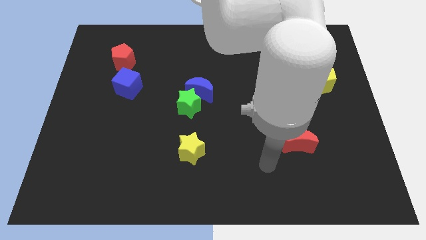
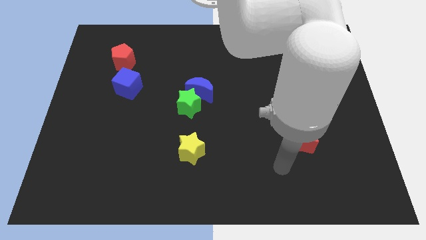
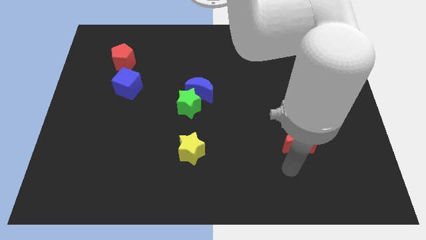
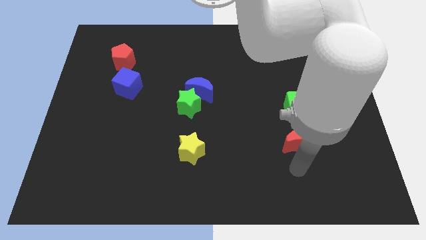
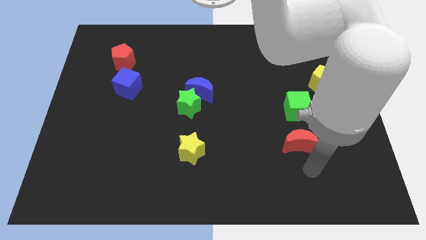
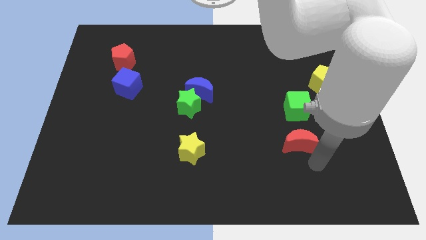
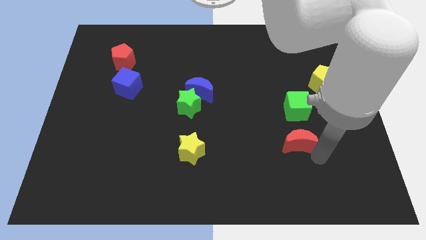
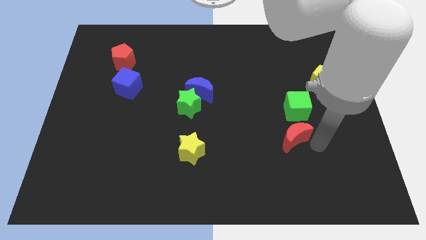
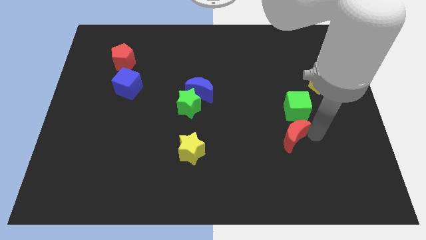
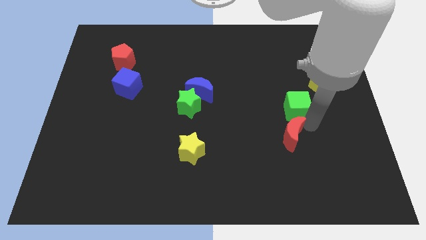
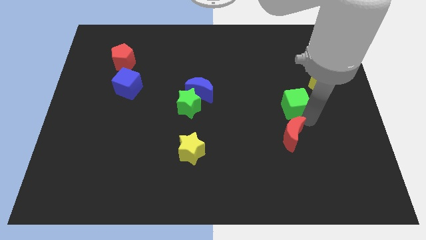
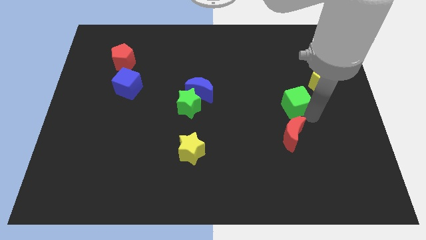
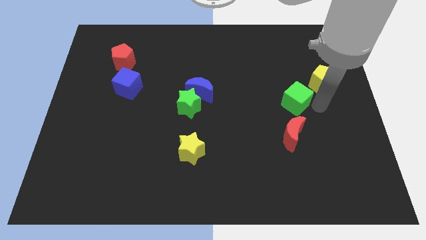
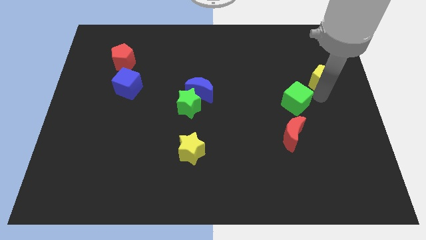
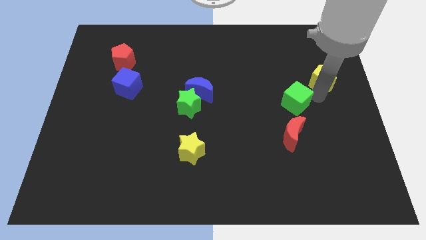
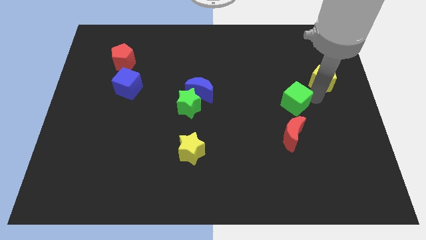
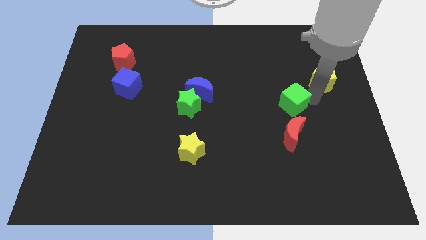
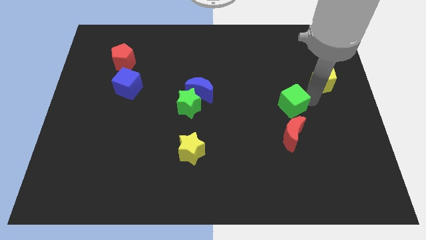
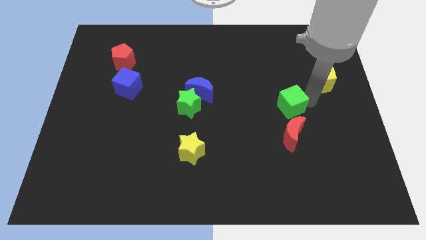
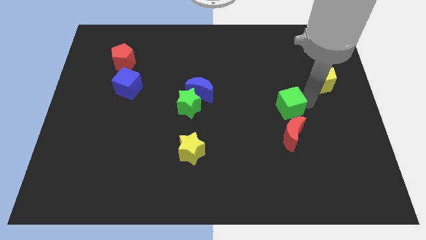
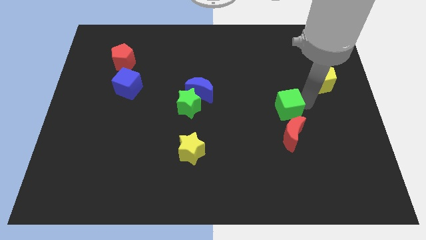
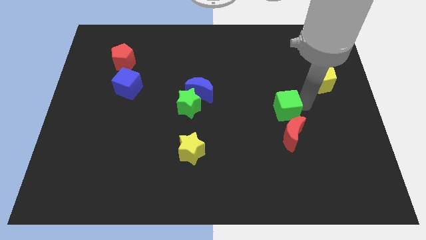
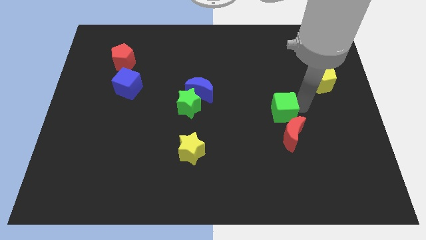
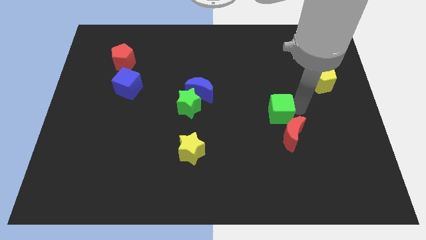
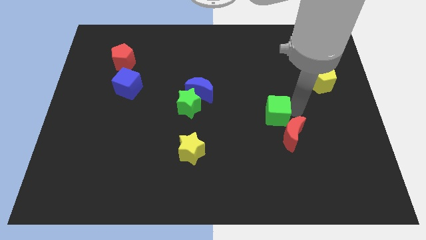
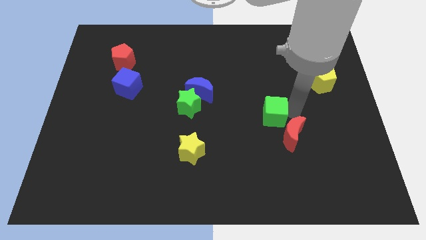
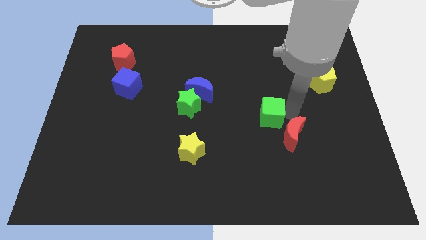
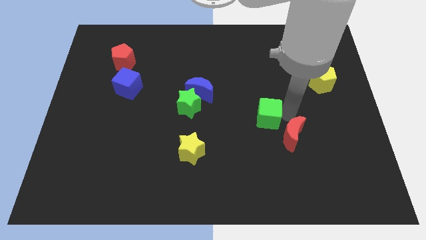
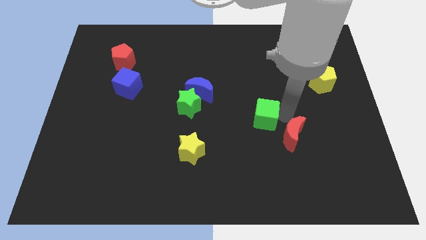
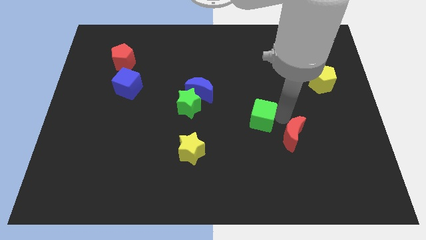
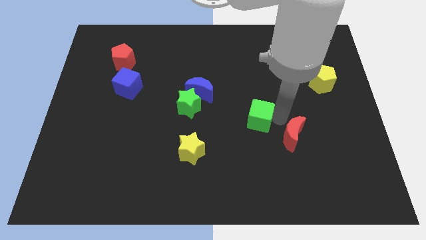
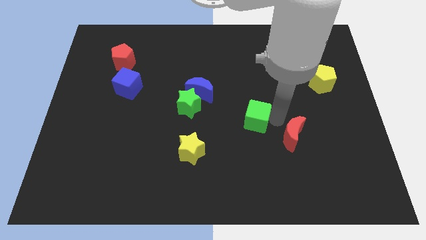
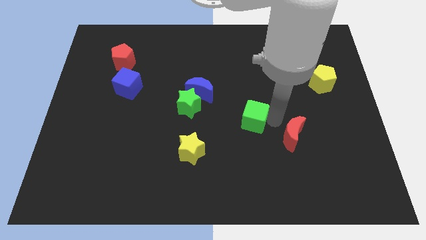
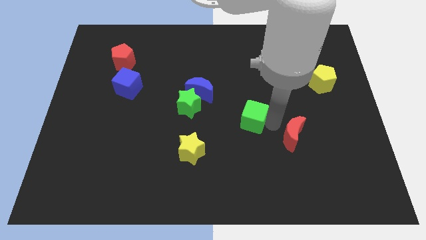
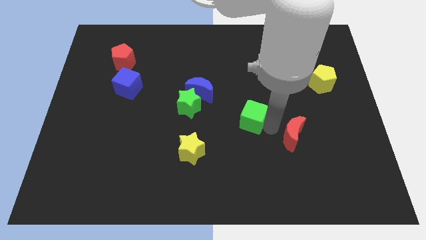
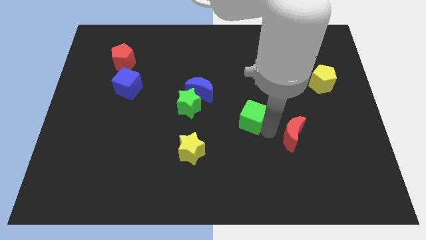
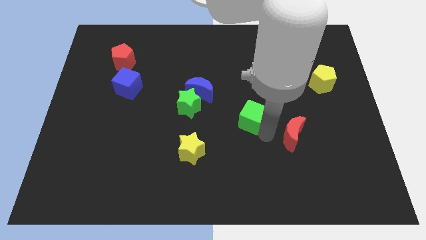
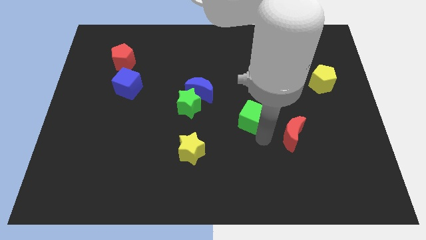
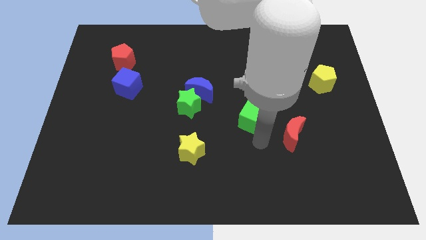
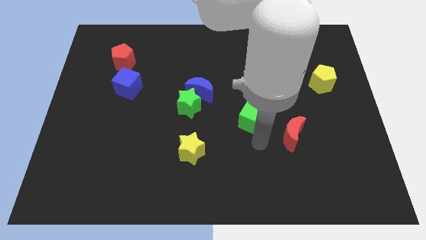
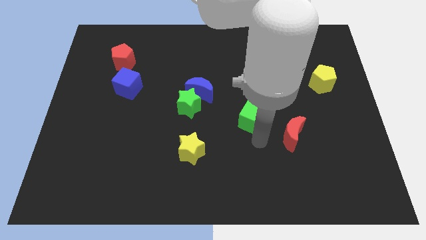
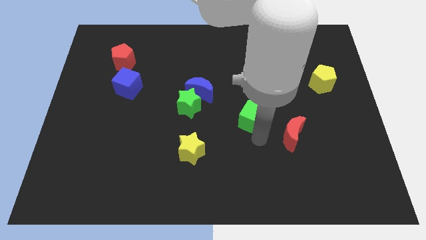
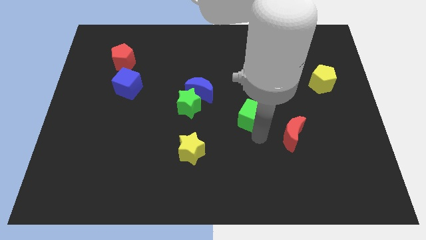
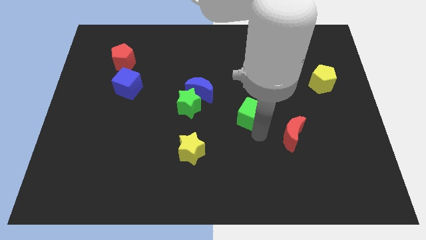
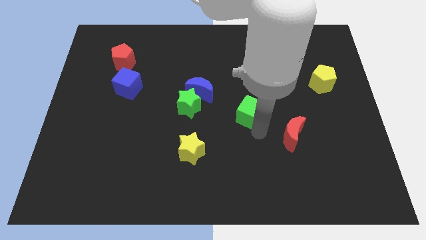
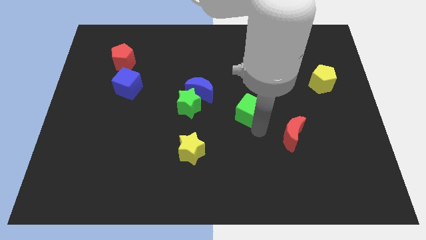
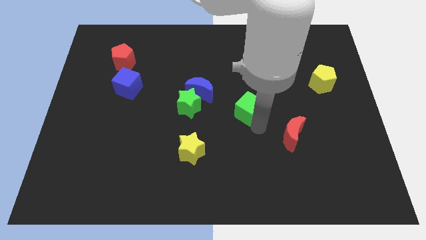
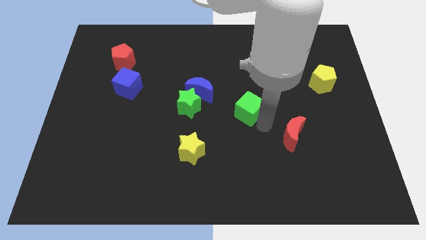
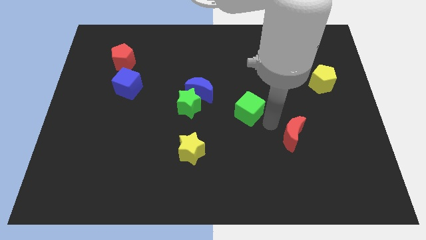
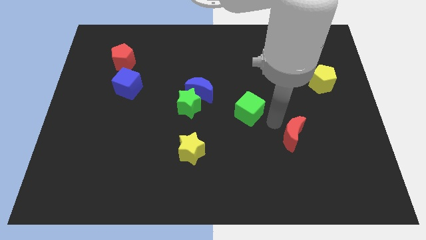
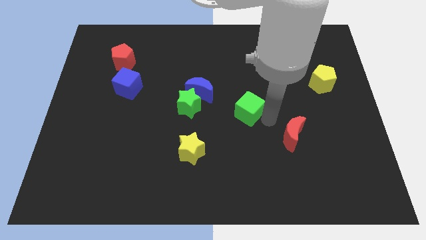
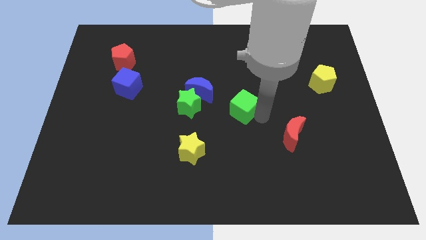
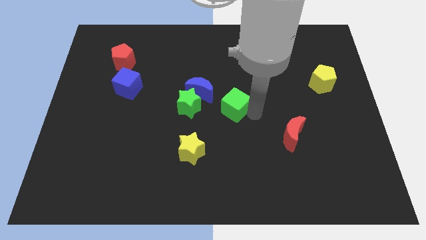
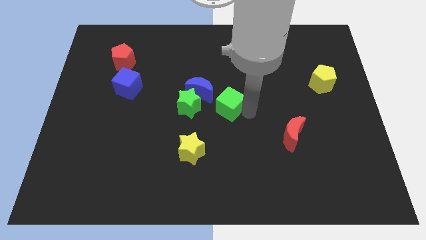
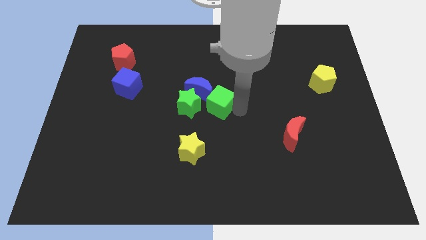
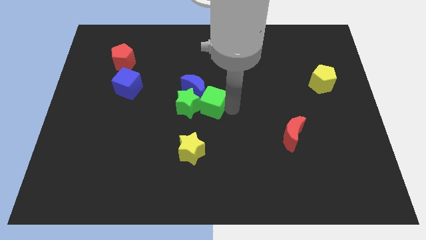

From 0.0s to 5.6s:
push the green cube towards the blue moon

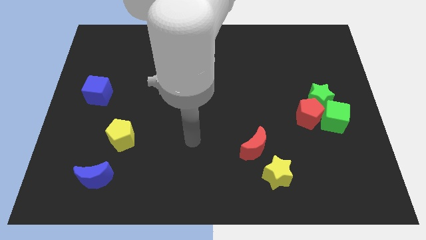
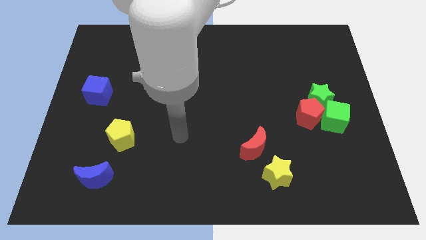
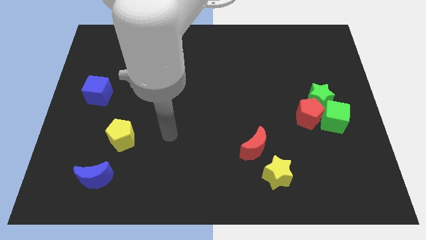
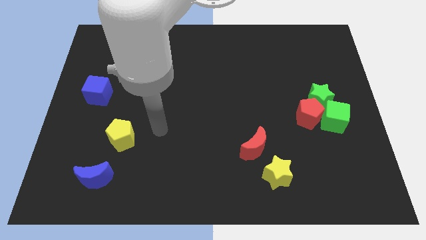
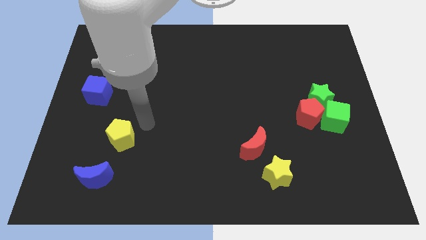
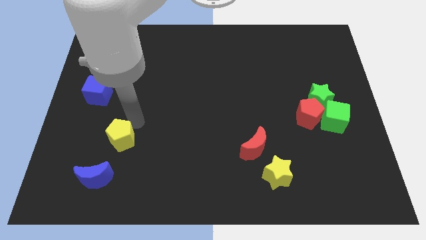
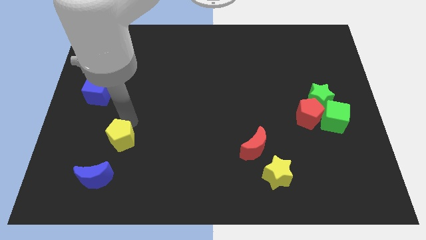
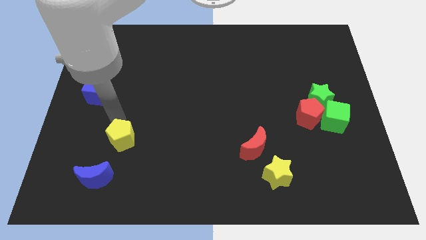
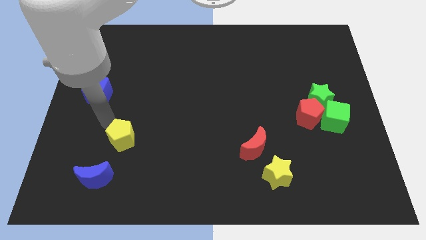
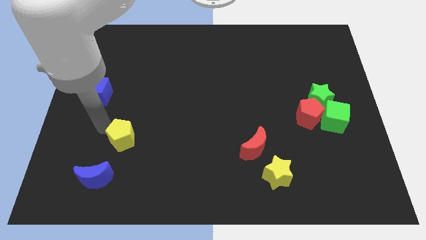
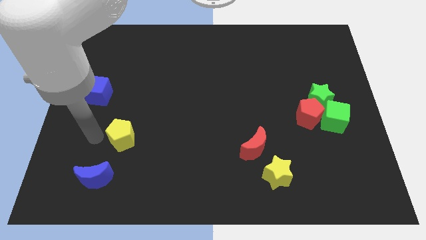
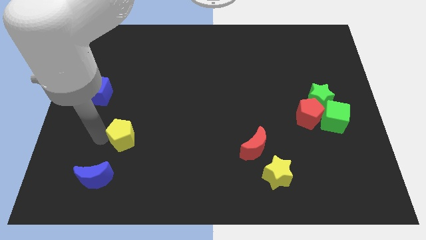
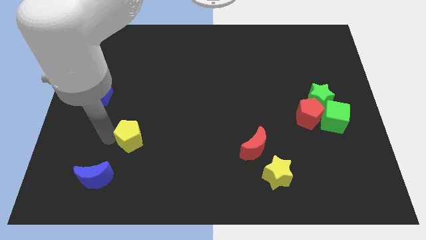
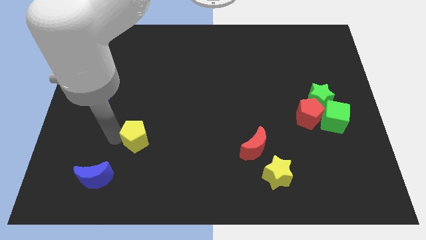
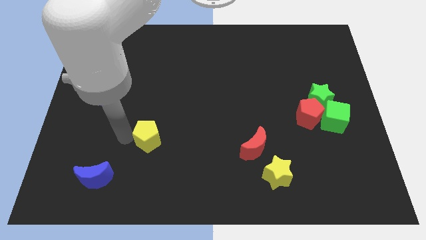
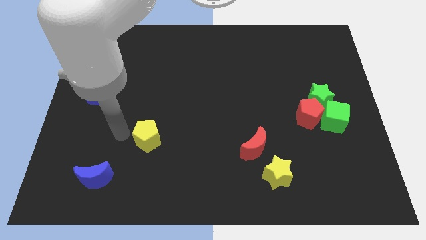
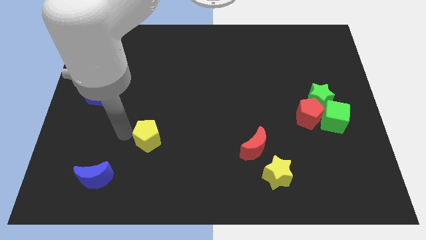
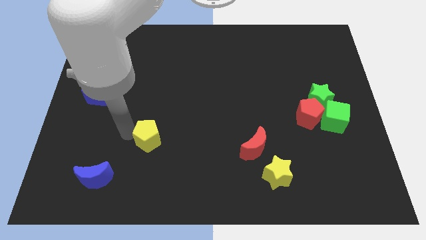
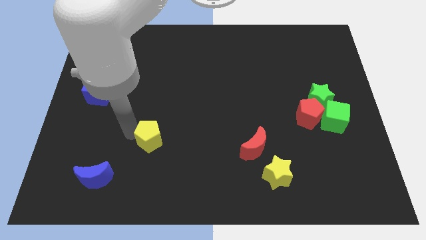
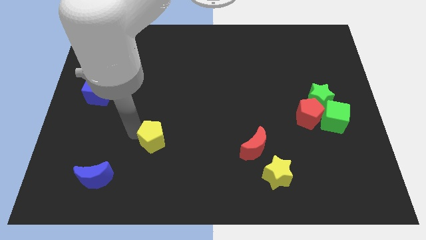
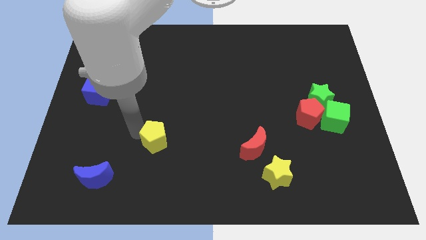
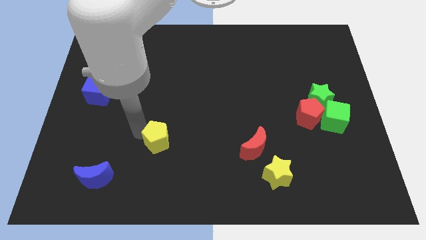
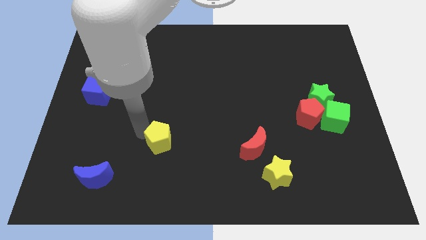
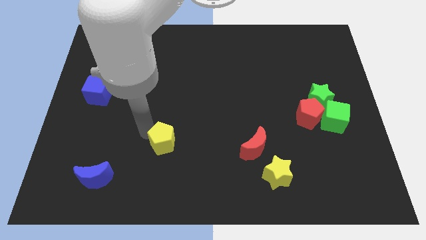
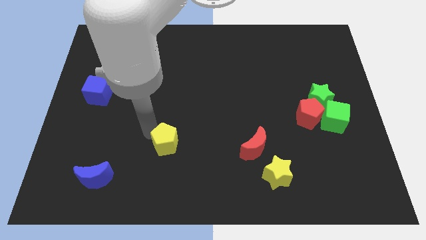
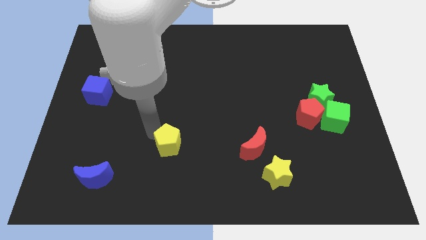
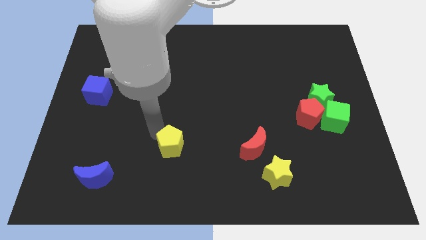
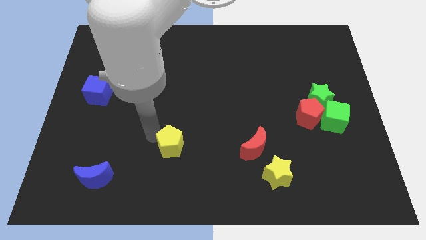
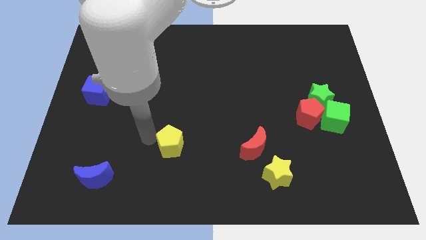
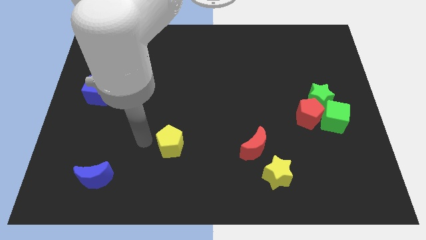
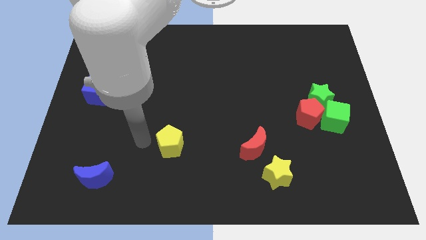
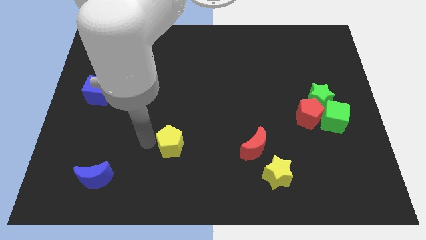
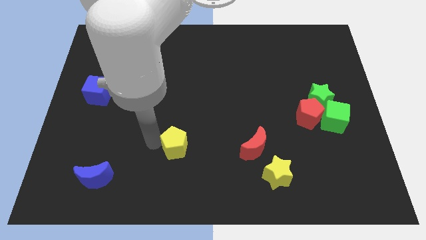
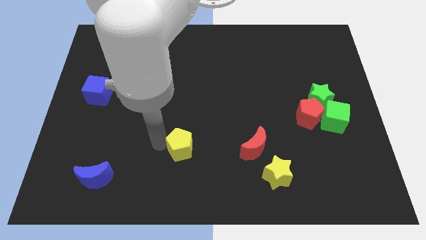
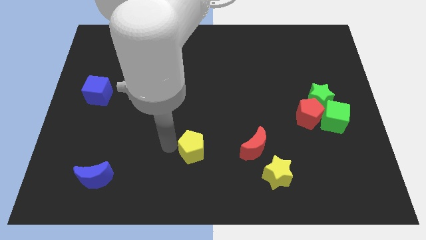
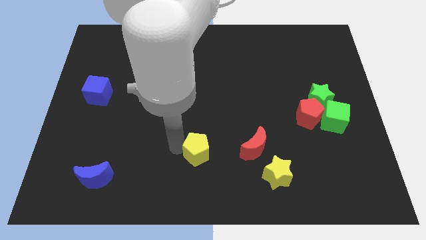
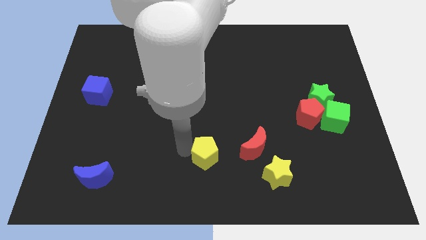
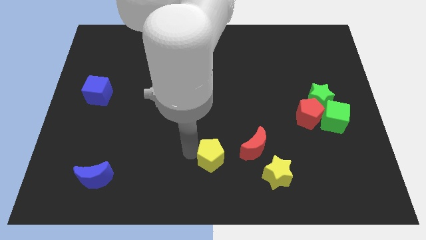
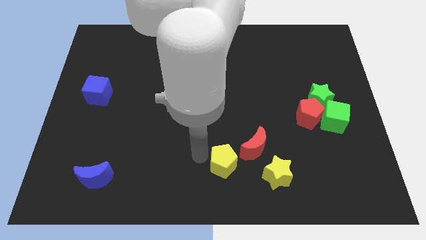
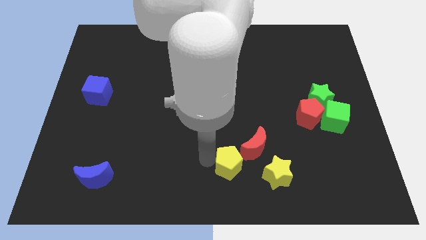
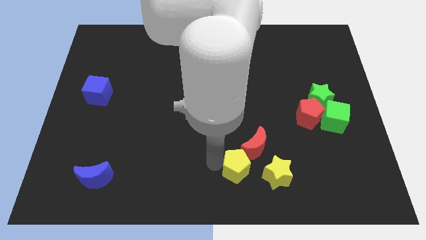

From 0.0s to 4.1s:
push the yellow pentagon towards the red moon
